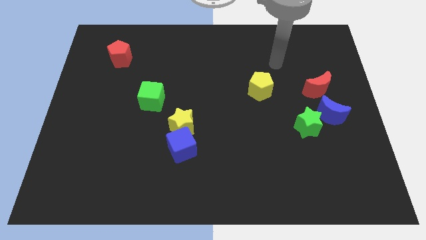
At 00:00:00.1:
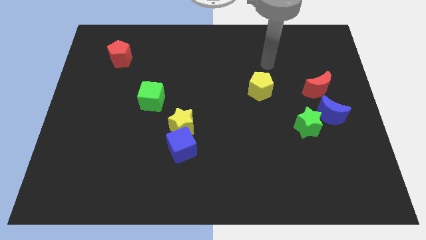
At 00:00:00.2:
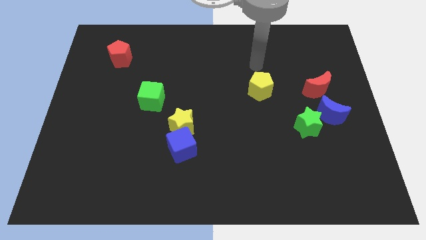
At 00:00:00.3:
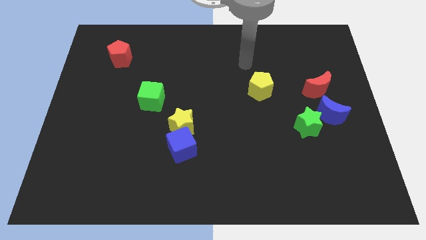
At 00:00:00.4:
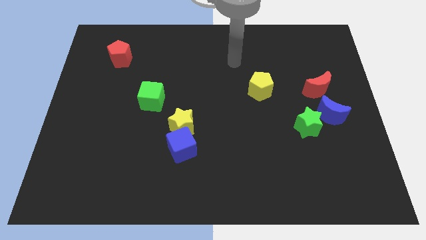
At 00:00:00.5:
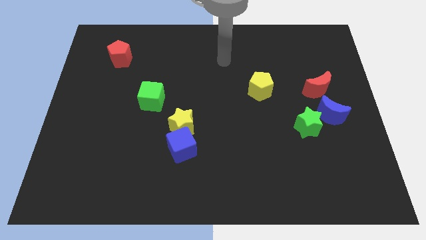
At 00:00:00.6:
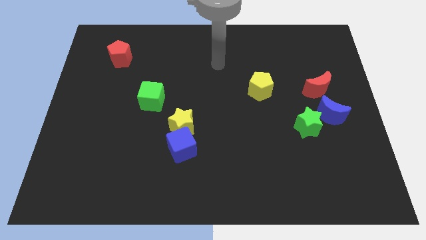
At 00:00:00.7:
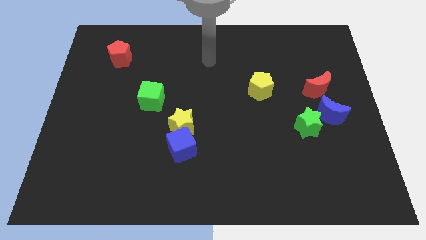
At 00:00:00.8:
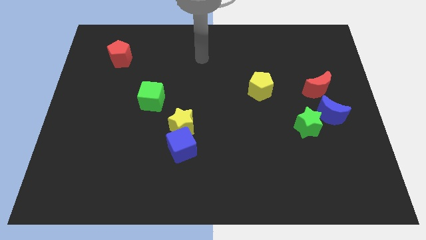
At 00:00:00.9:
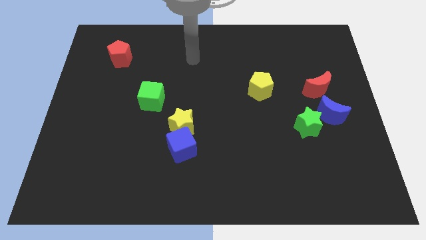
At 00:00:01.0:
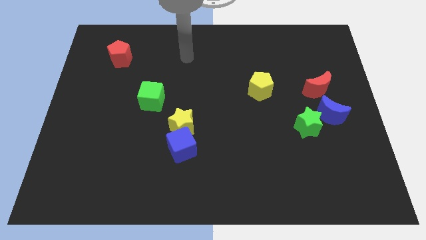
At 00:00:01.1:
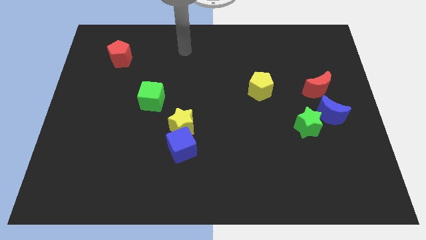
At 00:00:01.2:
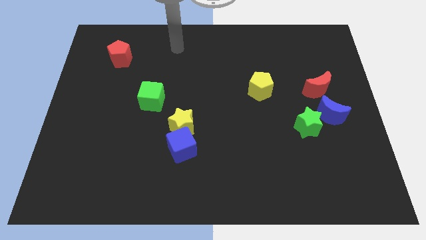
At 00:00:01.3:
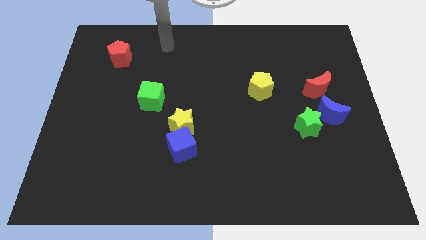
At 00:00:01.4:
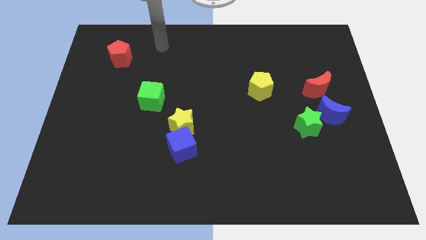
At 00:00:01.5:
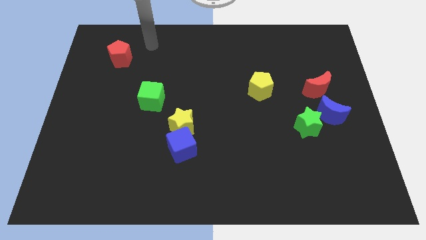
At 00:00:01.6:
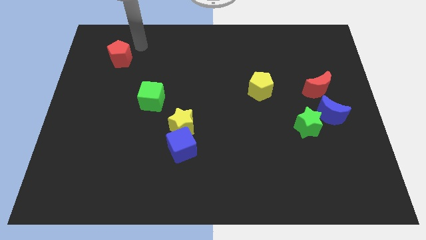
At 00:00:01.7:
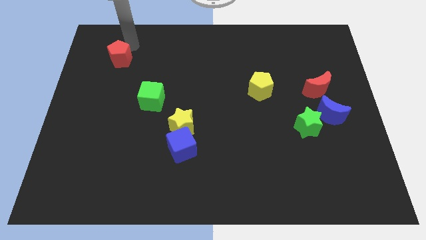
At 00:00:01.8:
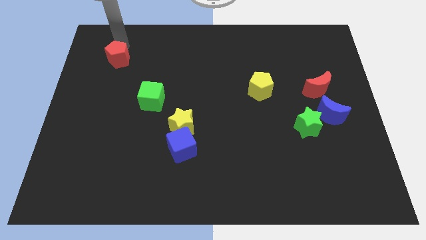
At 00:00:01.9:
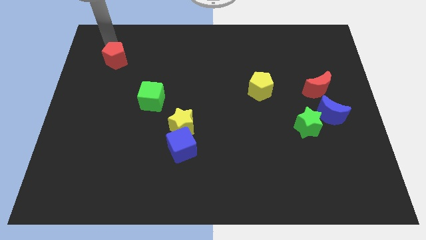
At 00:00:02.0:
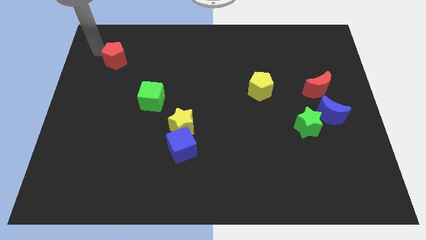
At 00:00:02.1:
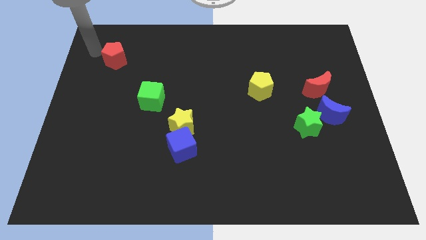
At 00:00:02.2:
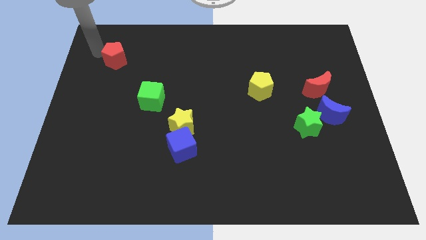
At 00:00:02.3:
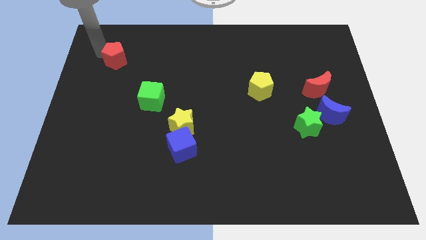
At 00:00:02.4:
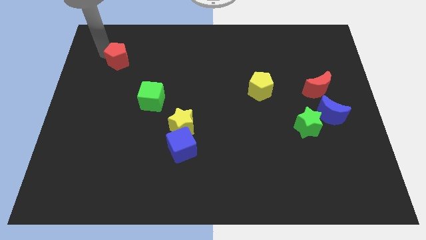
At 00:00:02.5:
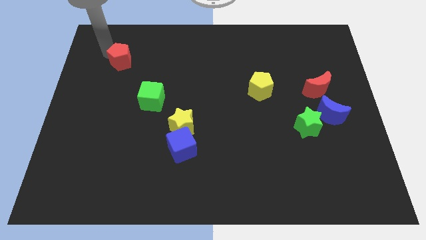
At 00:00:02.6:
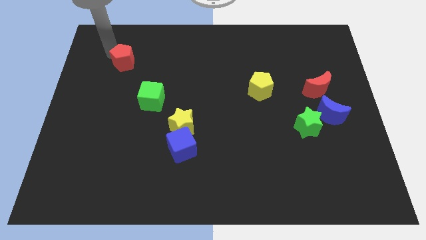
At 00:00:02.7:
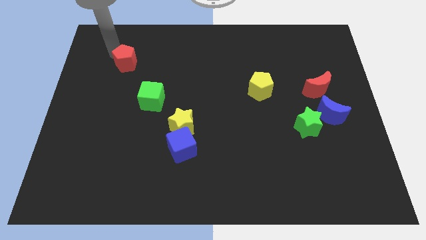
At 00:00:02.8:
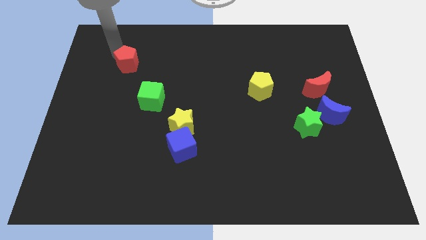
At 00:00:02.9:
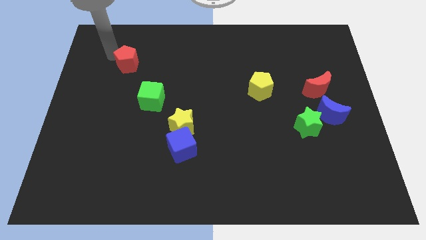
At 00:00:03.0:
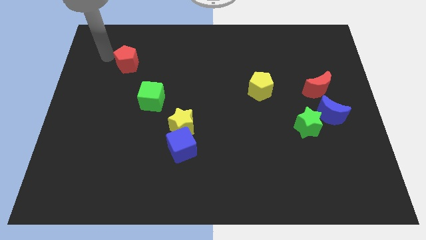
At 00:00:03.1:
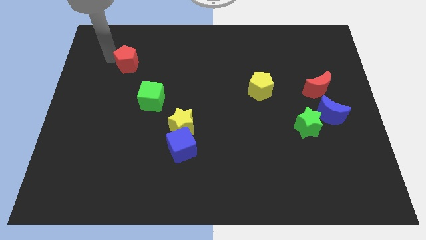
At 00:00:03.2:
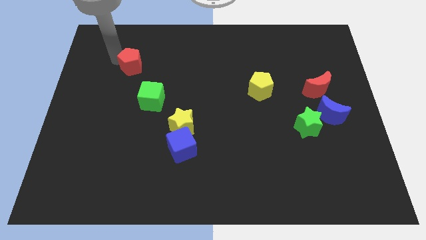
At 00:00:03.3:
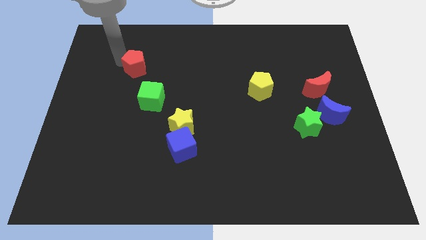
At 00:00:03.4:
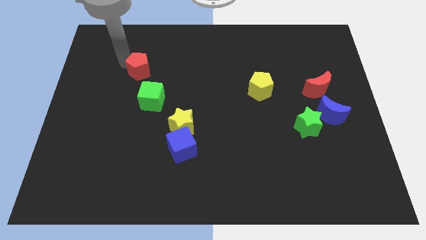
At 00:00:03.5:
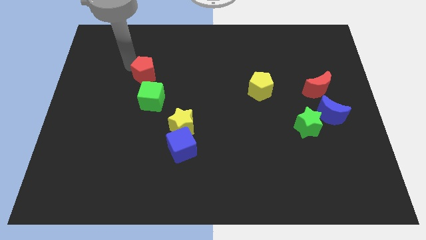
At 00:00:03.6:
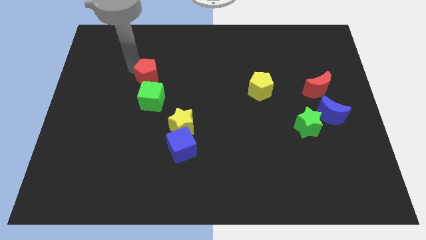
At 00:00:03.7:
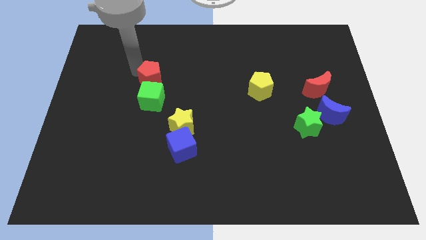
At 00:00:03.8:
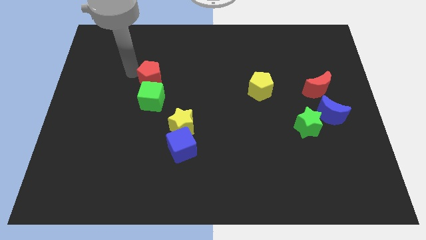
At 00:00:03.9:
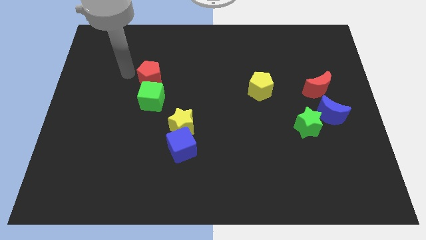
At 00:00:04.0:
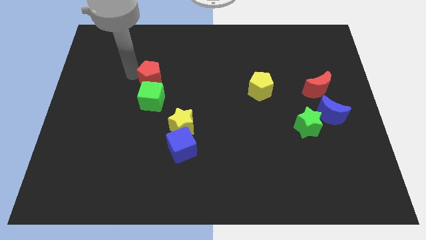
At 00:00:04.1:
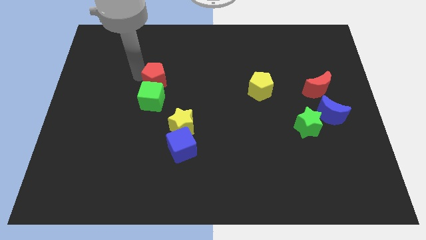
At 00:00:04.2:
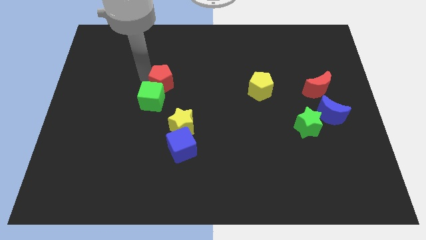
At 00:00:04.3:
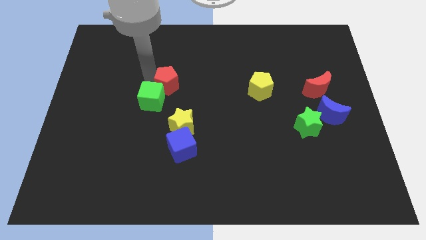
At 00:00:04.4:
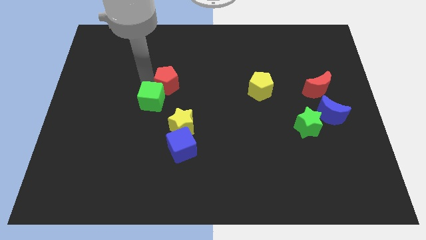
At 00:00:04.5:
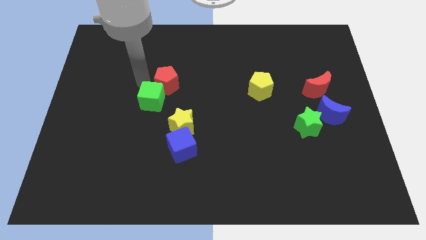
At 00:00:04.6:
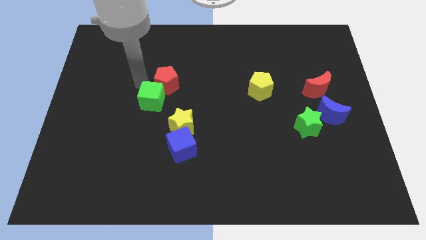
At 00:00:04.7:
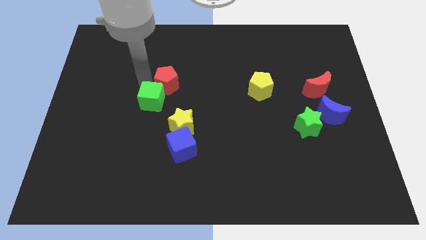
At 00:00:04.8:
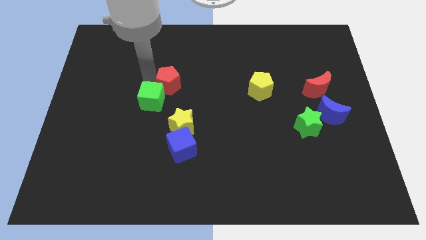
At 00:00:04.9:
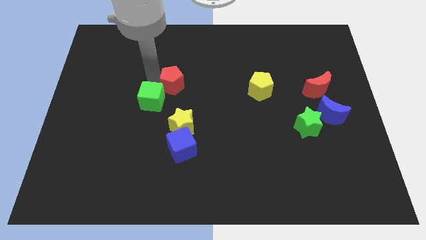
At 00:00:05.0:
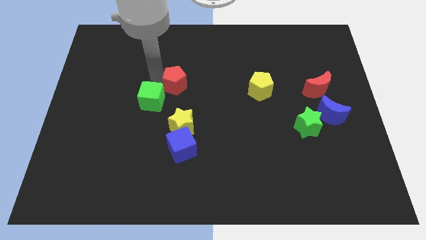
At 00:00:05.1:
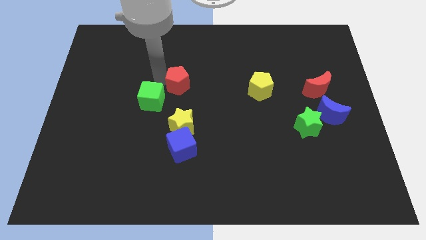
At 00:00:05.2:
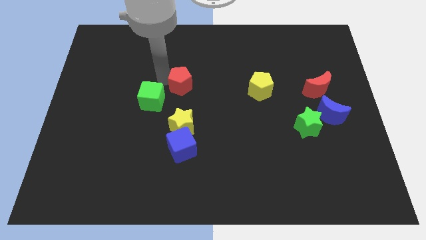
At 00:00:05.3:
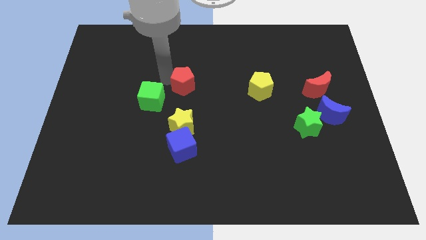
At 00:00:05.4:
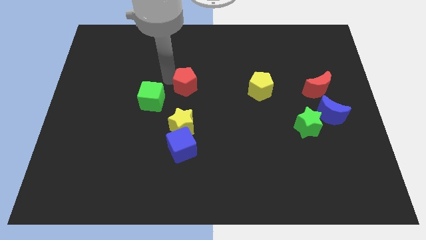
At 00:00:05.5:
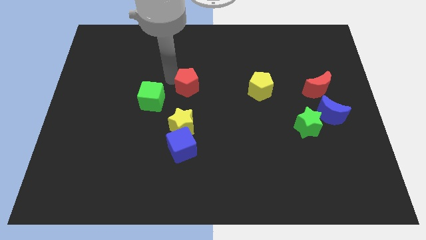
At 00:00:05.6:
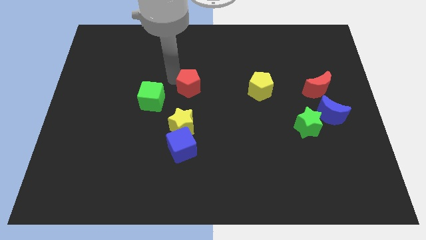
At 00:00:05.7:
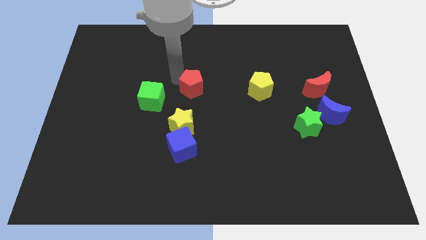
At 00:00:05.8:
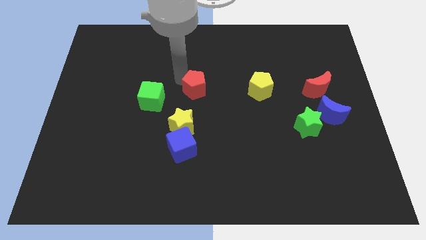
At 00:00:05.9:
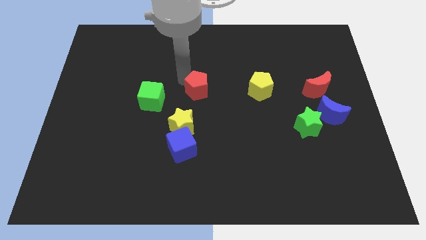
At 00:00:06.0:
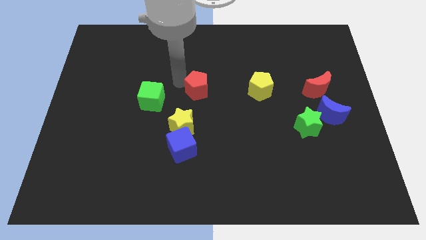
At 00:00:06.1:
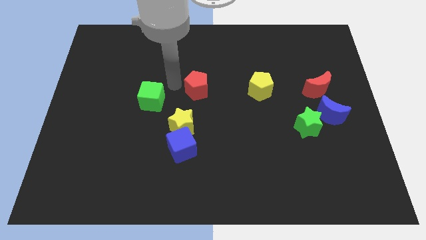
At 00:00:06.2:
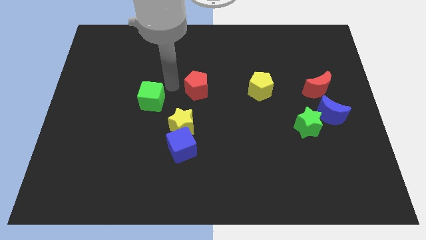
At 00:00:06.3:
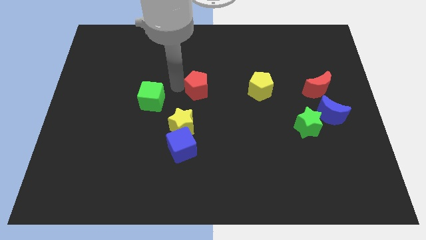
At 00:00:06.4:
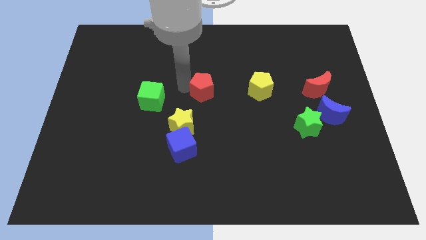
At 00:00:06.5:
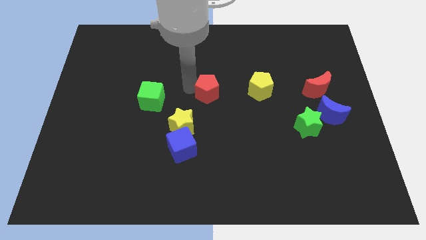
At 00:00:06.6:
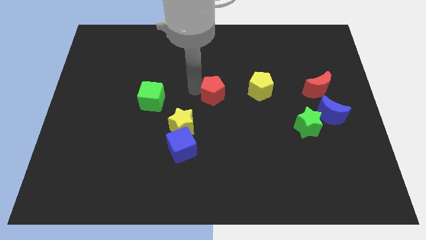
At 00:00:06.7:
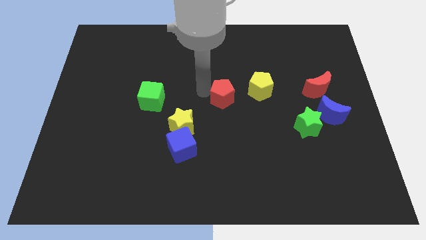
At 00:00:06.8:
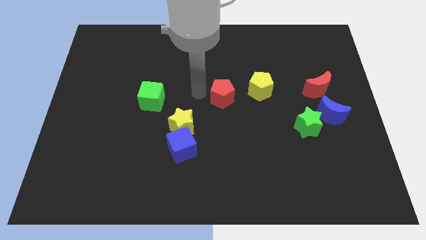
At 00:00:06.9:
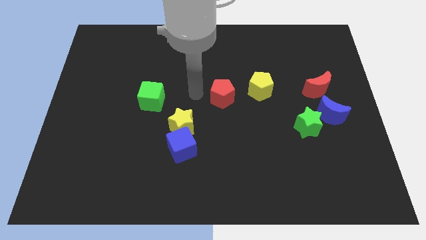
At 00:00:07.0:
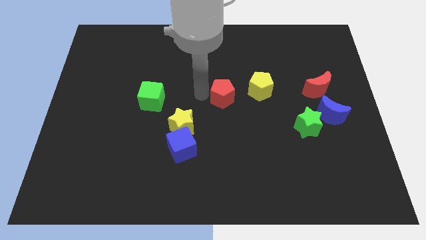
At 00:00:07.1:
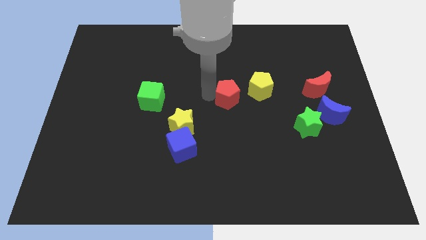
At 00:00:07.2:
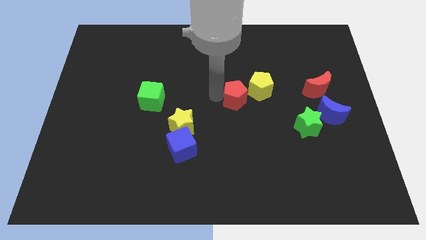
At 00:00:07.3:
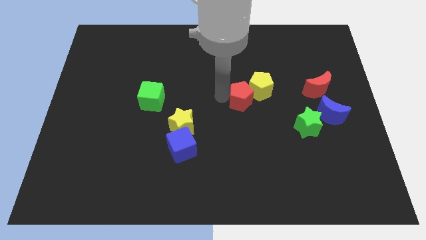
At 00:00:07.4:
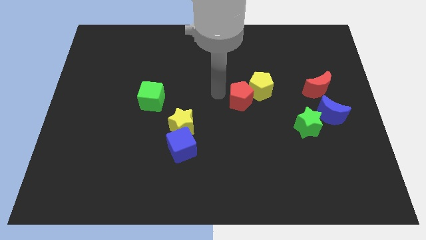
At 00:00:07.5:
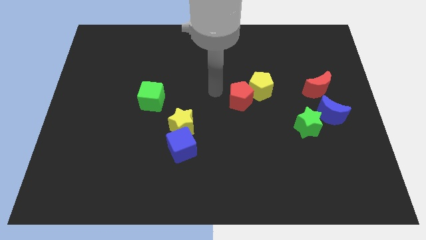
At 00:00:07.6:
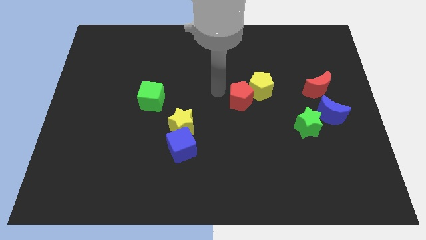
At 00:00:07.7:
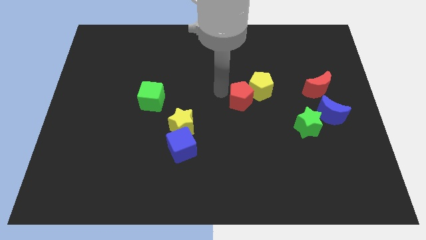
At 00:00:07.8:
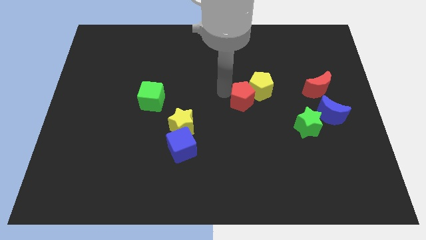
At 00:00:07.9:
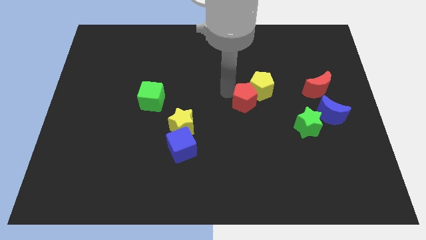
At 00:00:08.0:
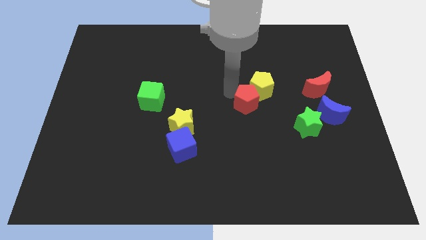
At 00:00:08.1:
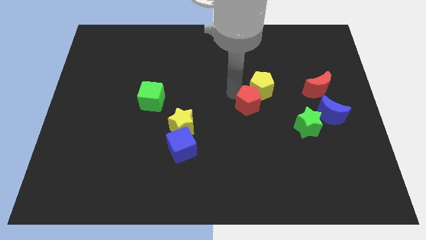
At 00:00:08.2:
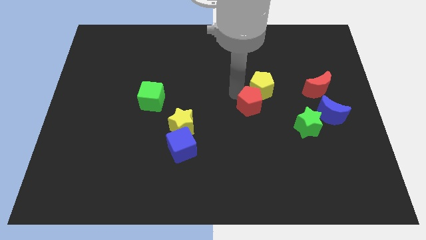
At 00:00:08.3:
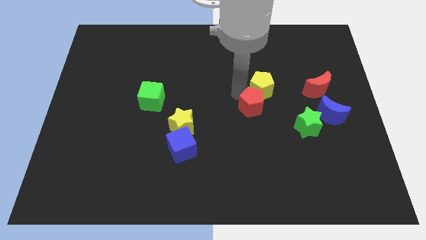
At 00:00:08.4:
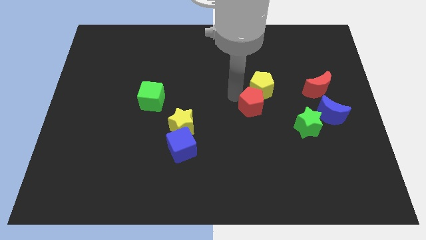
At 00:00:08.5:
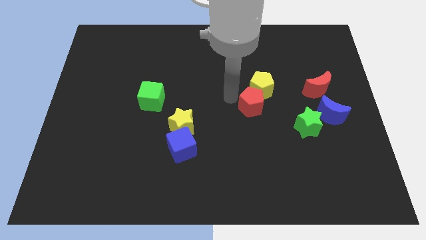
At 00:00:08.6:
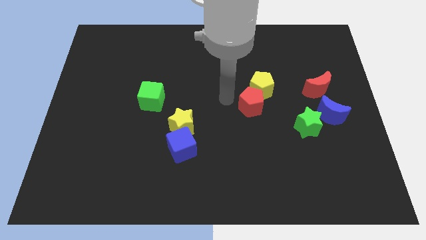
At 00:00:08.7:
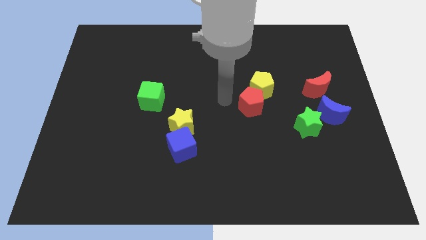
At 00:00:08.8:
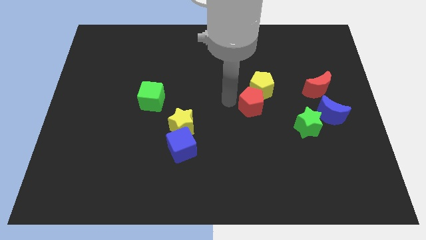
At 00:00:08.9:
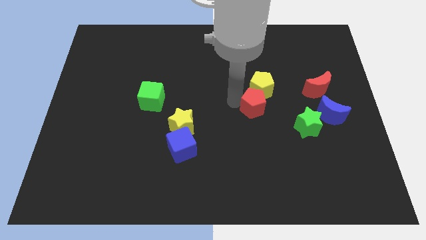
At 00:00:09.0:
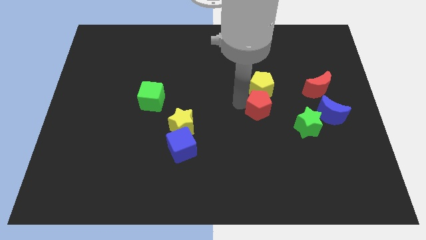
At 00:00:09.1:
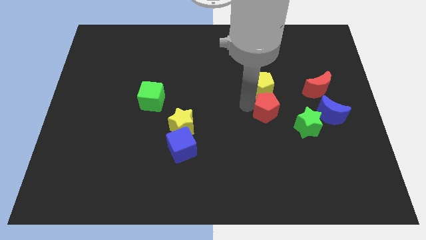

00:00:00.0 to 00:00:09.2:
move the red pentagon diagonally up and to the left of the green star
